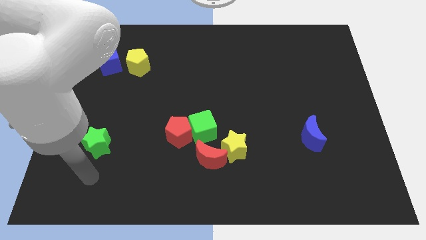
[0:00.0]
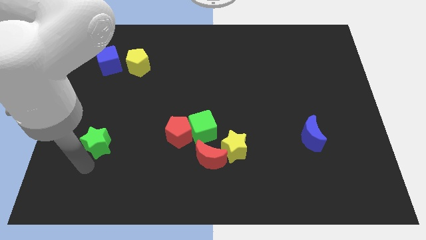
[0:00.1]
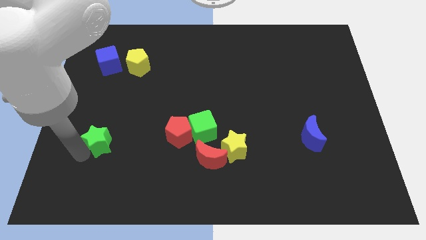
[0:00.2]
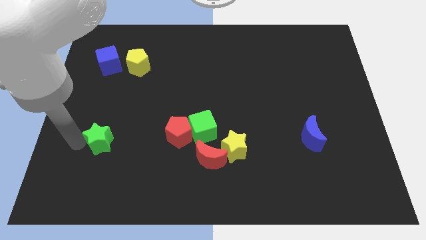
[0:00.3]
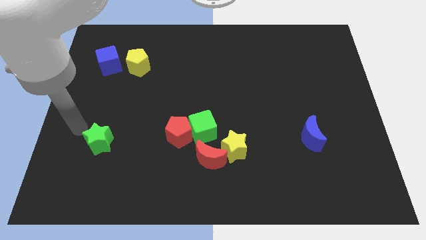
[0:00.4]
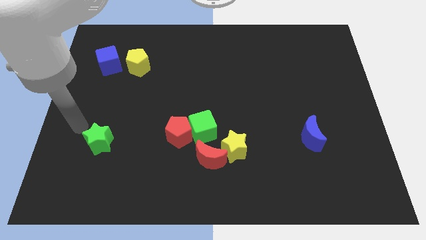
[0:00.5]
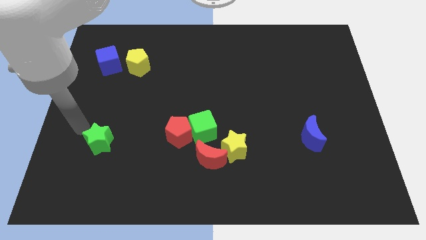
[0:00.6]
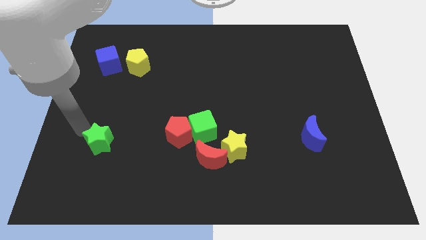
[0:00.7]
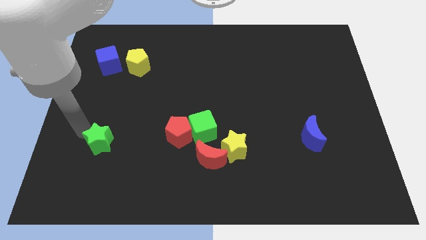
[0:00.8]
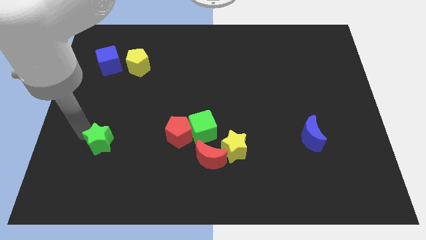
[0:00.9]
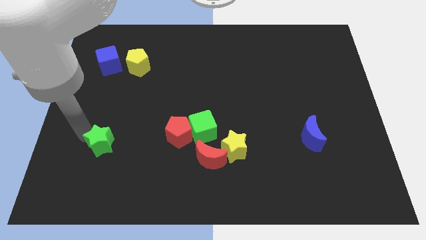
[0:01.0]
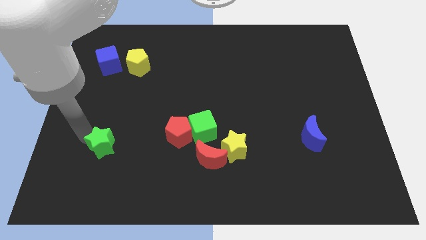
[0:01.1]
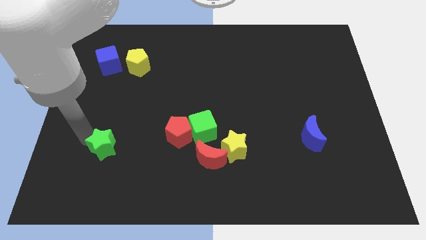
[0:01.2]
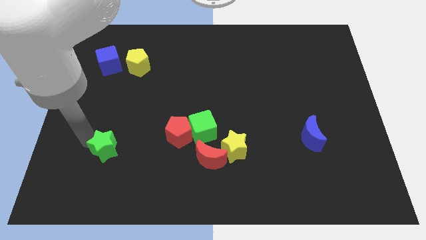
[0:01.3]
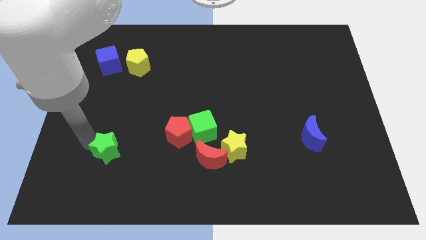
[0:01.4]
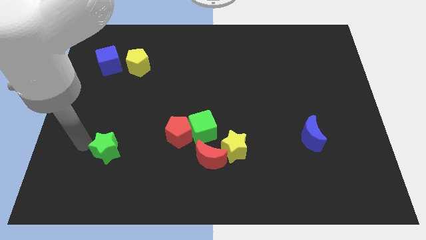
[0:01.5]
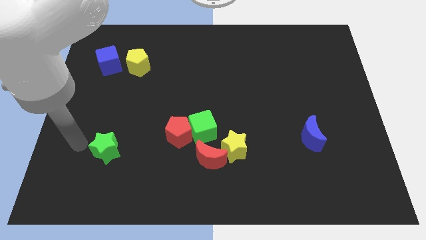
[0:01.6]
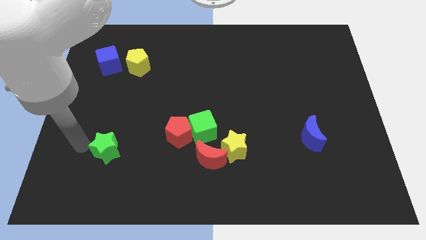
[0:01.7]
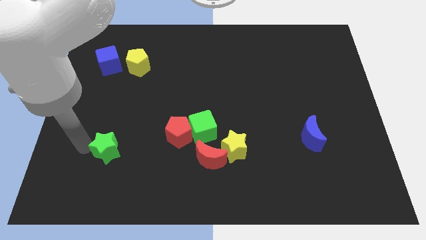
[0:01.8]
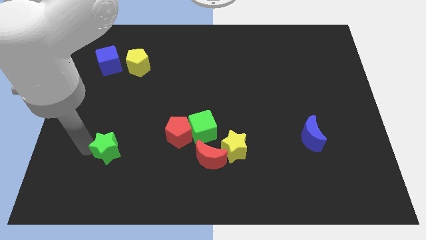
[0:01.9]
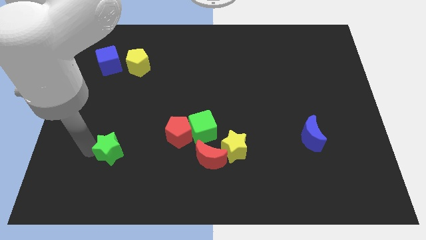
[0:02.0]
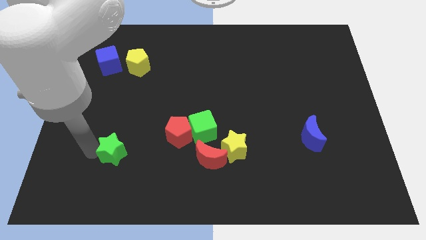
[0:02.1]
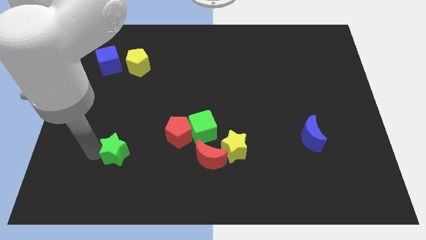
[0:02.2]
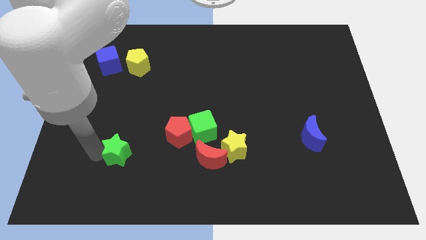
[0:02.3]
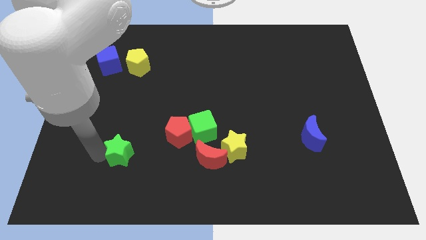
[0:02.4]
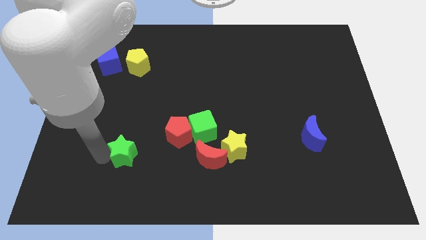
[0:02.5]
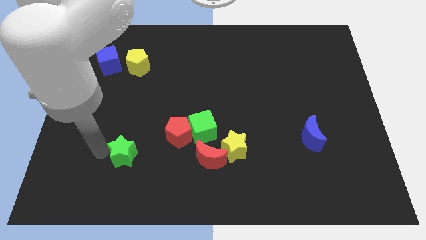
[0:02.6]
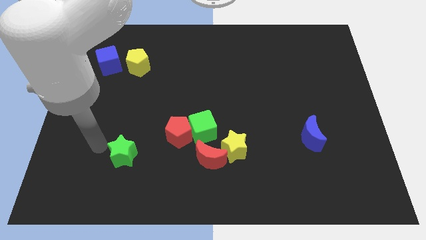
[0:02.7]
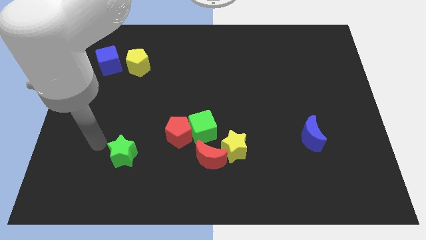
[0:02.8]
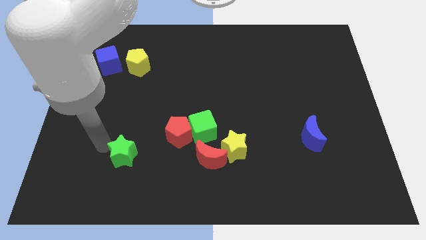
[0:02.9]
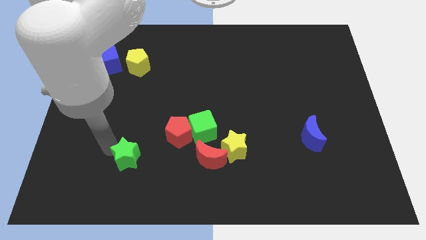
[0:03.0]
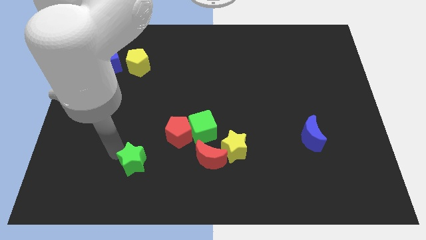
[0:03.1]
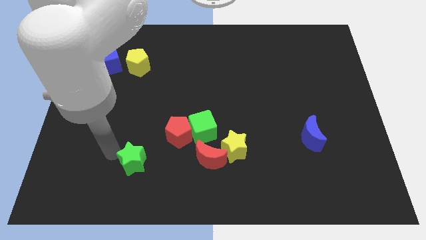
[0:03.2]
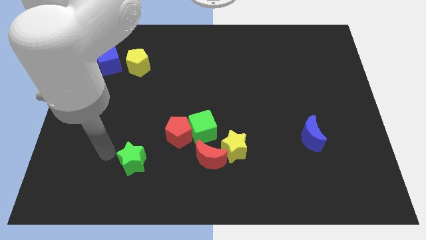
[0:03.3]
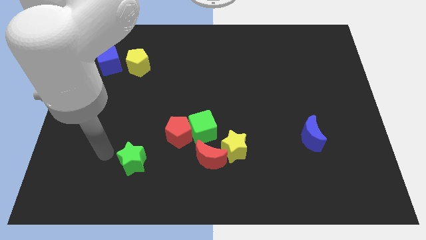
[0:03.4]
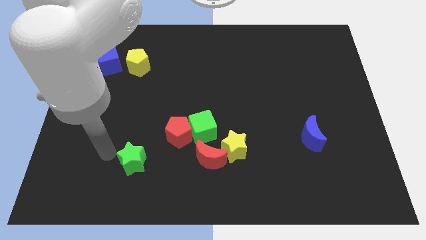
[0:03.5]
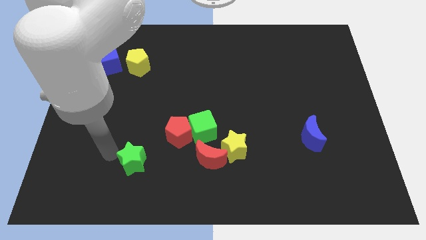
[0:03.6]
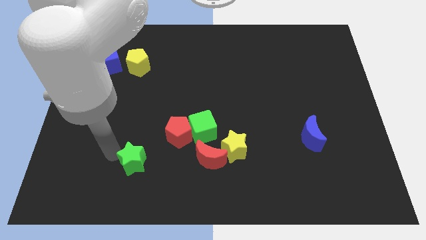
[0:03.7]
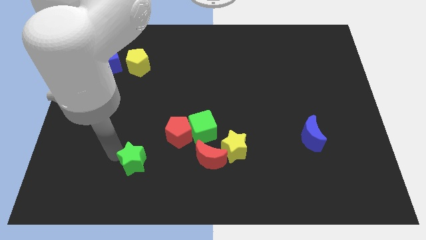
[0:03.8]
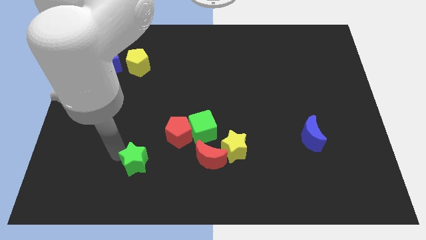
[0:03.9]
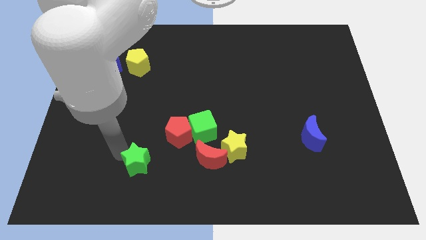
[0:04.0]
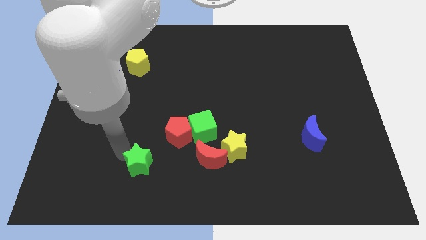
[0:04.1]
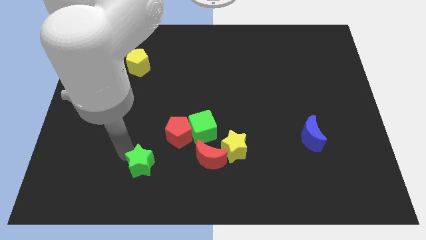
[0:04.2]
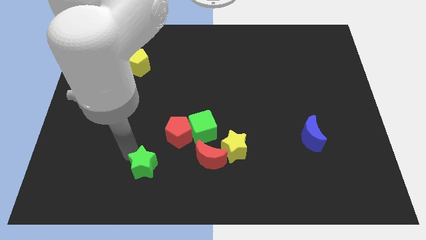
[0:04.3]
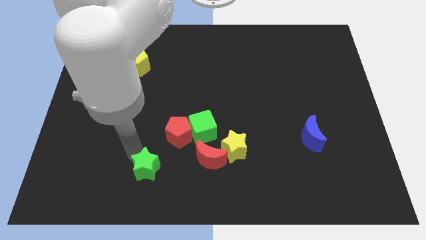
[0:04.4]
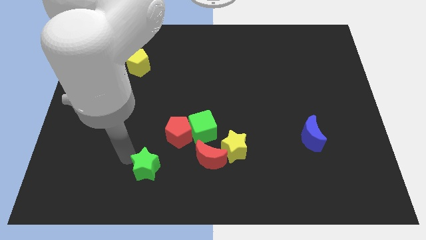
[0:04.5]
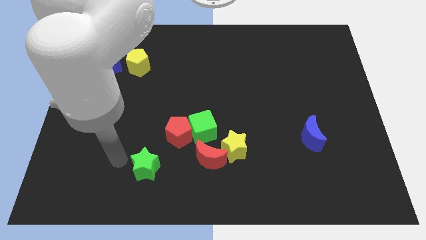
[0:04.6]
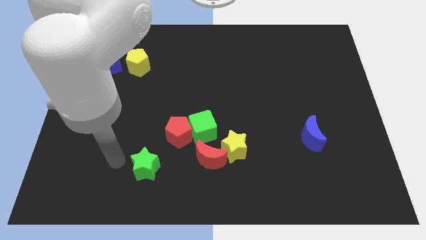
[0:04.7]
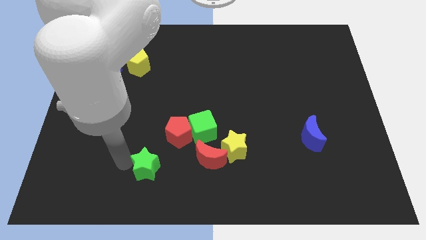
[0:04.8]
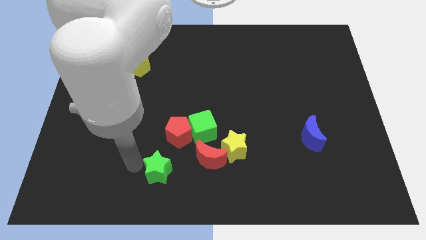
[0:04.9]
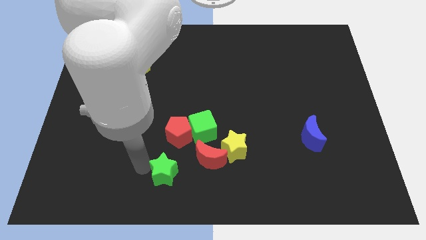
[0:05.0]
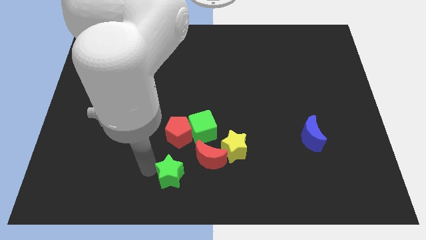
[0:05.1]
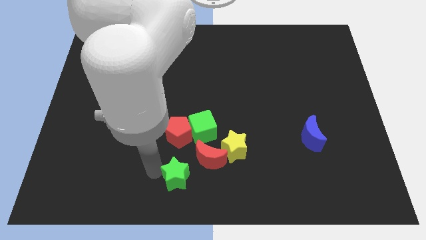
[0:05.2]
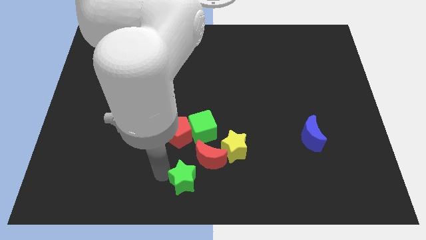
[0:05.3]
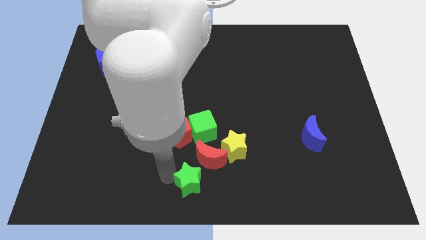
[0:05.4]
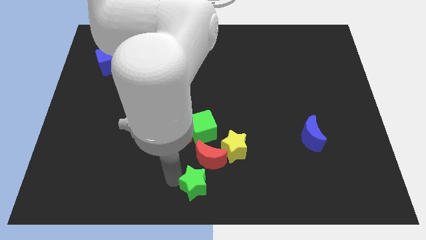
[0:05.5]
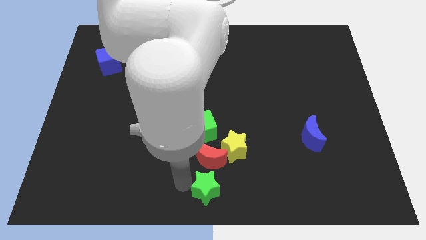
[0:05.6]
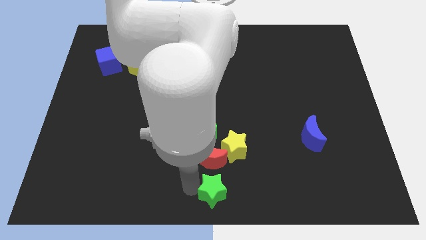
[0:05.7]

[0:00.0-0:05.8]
move the green star to the bottom right side of the red moon

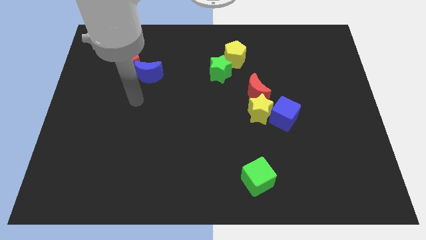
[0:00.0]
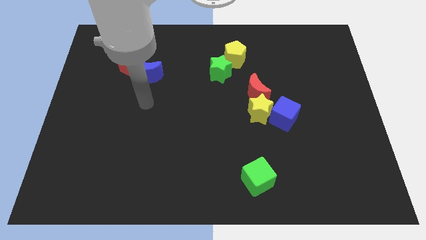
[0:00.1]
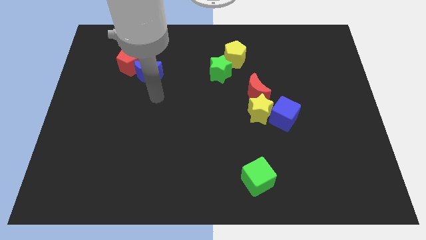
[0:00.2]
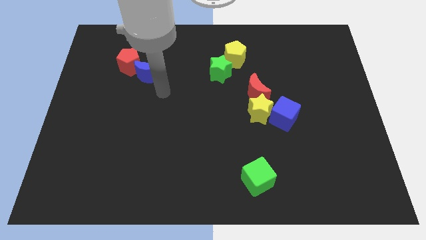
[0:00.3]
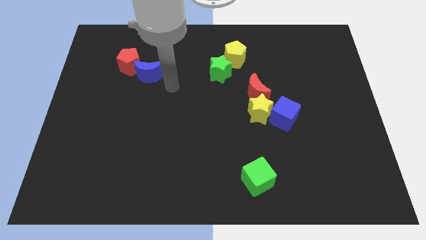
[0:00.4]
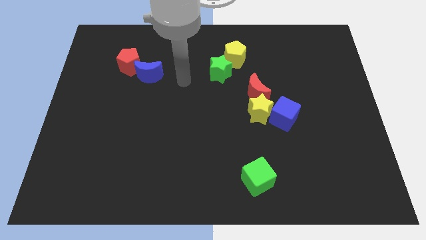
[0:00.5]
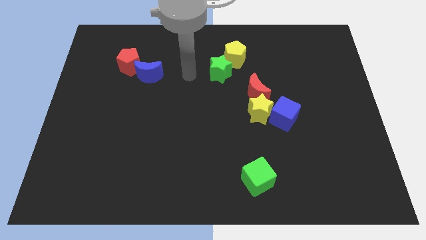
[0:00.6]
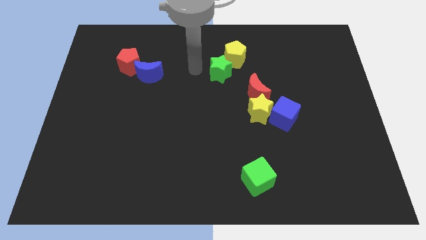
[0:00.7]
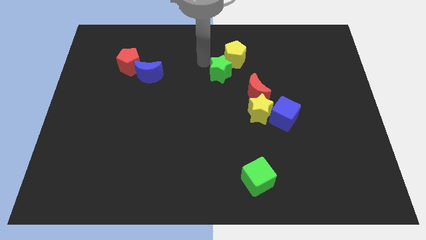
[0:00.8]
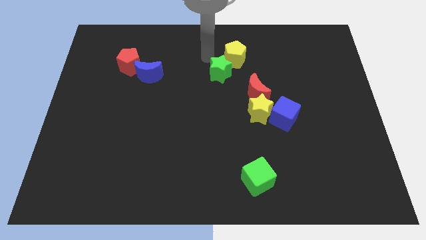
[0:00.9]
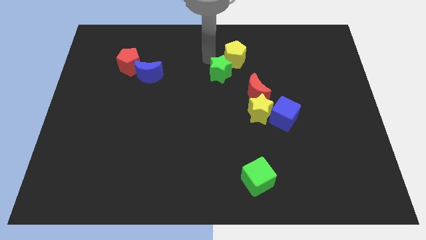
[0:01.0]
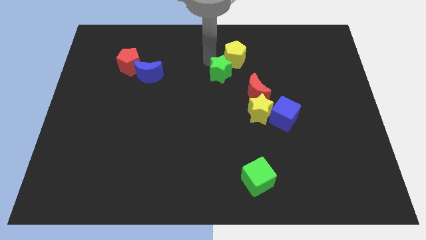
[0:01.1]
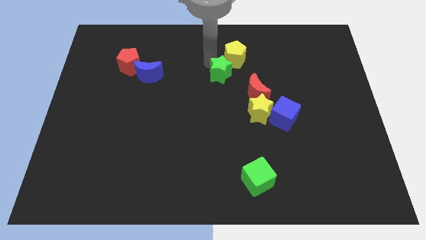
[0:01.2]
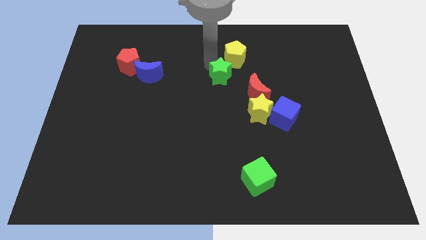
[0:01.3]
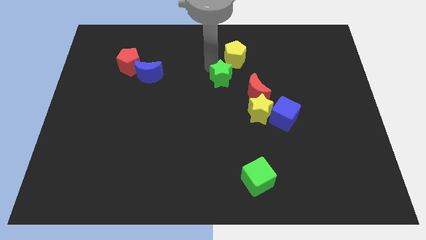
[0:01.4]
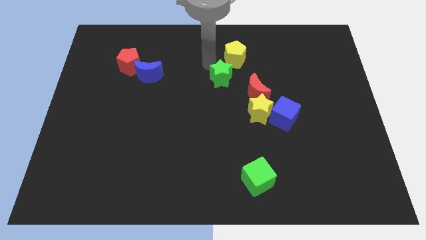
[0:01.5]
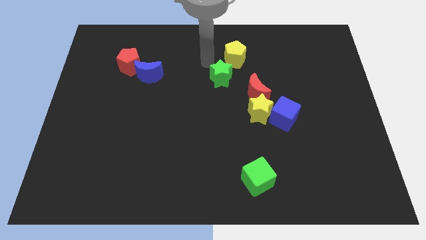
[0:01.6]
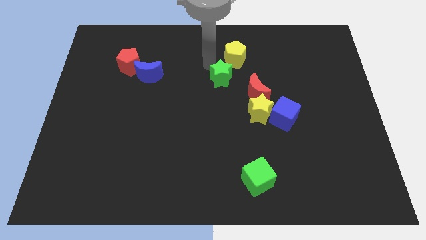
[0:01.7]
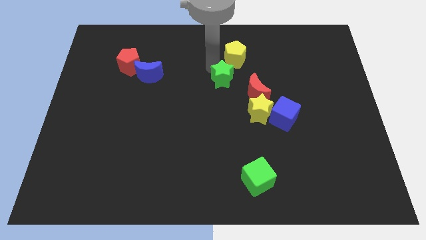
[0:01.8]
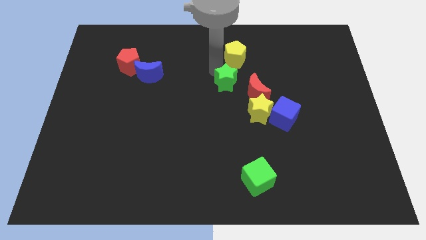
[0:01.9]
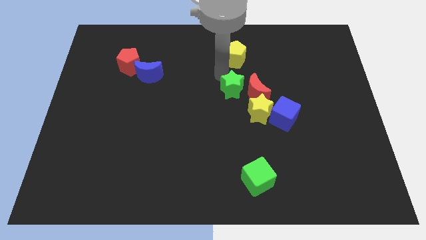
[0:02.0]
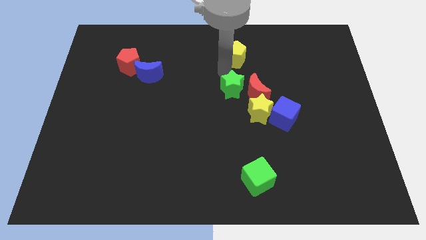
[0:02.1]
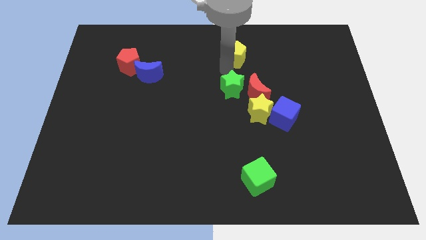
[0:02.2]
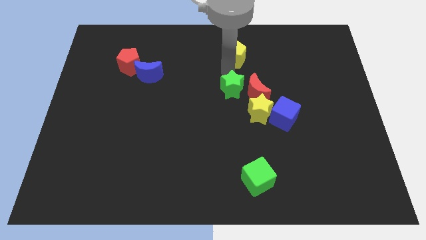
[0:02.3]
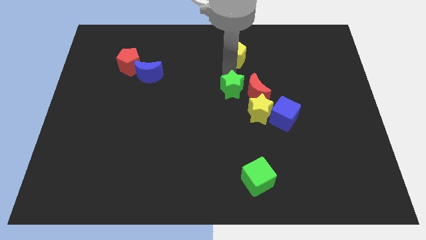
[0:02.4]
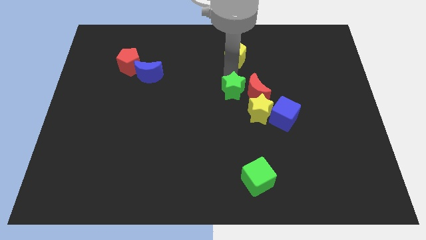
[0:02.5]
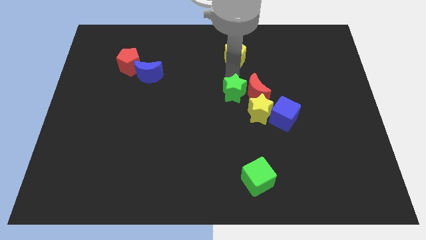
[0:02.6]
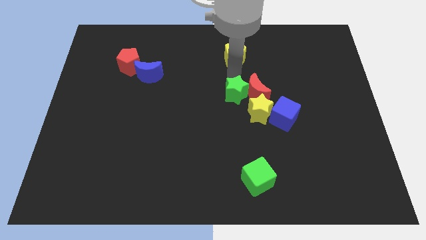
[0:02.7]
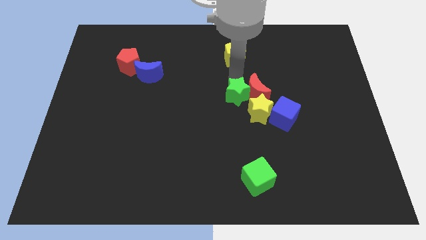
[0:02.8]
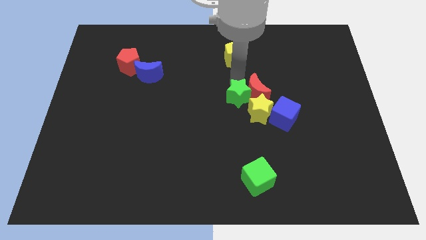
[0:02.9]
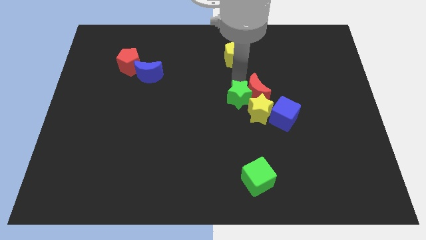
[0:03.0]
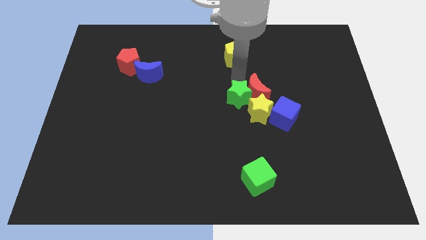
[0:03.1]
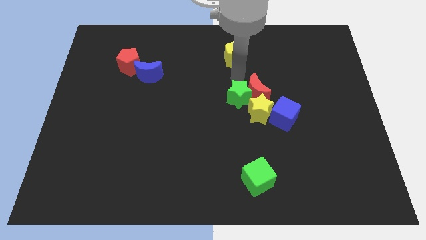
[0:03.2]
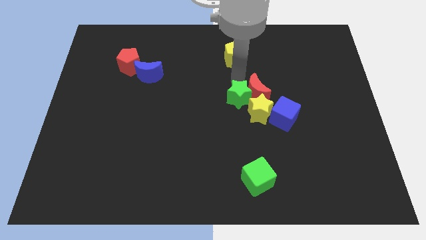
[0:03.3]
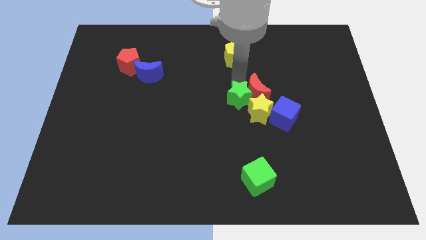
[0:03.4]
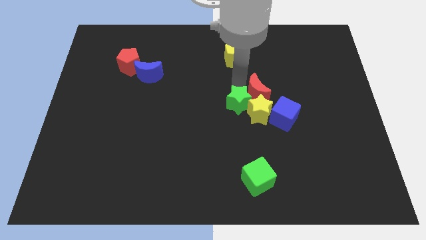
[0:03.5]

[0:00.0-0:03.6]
push the green star to the bottom side of the red moon
